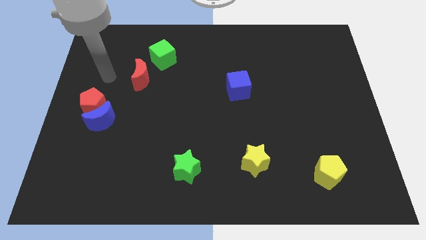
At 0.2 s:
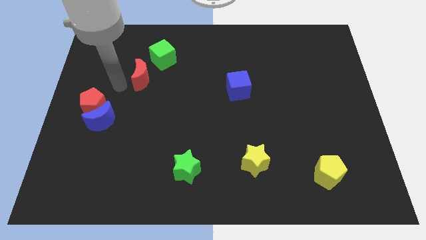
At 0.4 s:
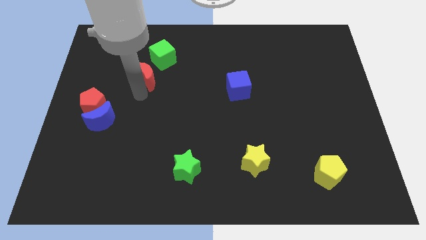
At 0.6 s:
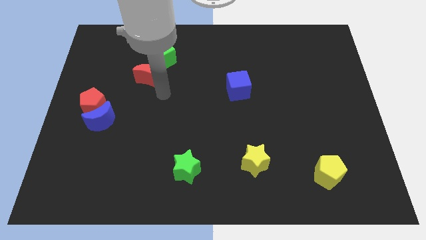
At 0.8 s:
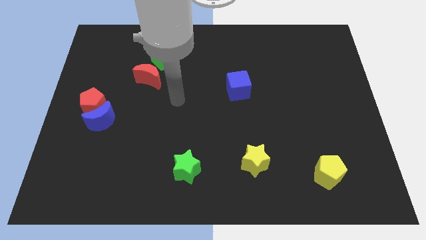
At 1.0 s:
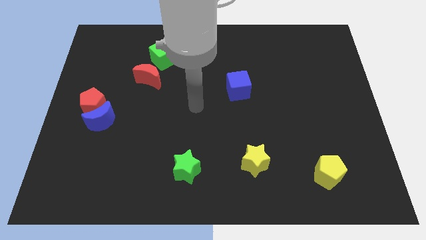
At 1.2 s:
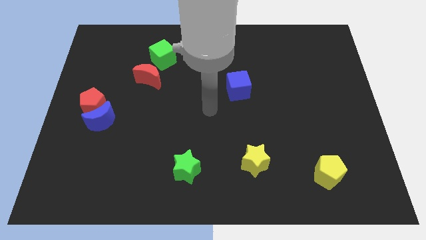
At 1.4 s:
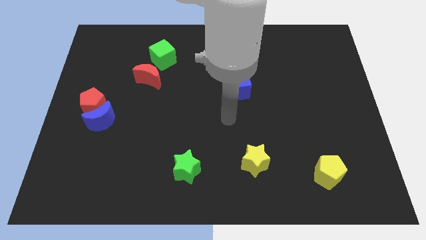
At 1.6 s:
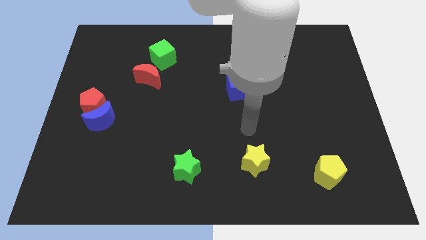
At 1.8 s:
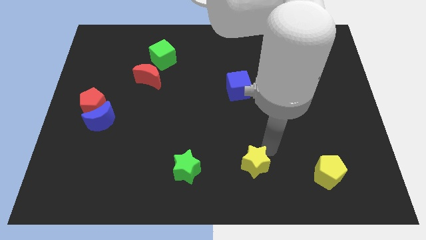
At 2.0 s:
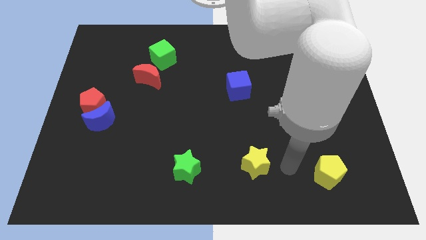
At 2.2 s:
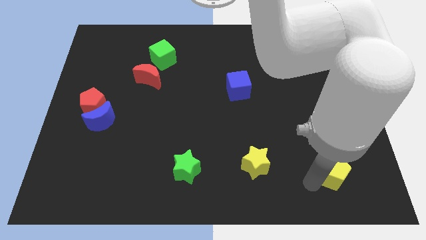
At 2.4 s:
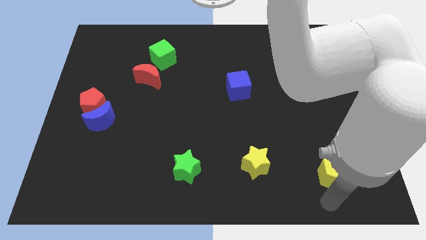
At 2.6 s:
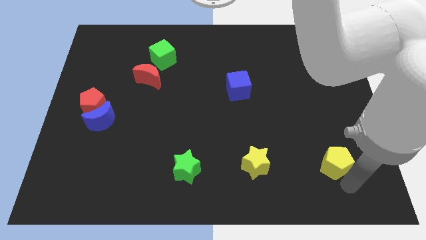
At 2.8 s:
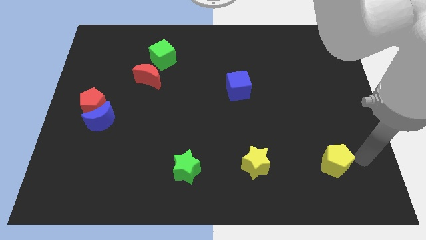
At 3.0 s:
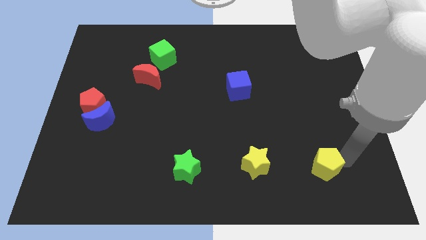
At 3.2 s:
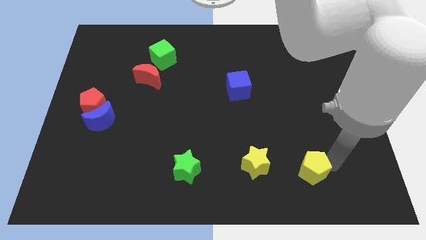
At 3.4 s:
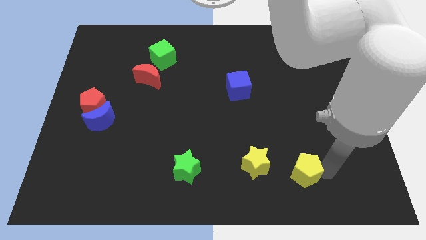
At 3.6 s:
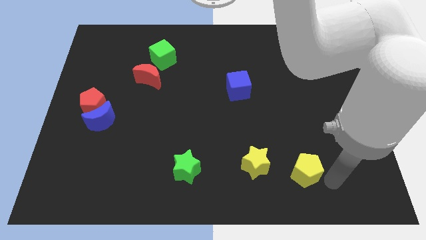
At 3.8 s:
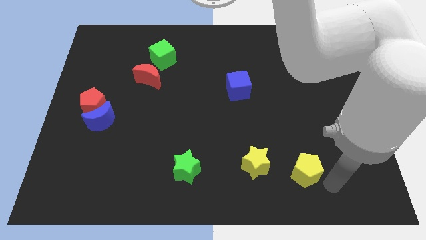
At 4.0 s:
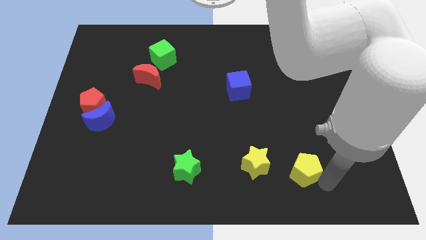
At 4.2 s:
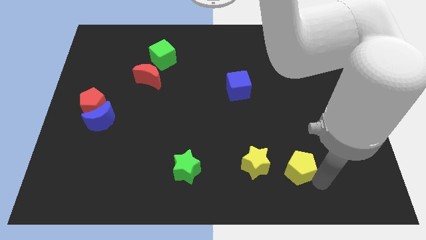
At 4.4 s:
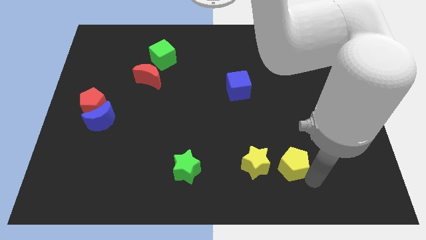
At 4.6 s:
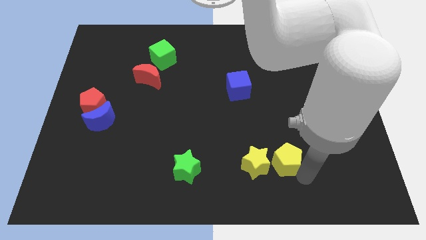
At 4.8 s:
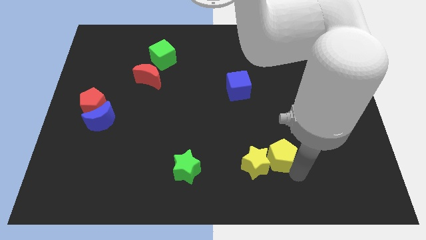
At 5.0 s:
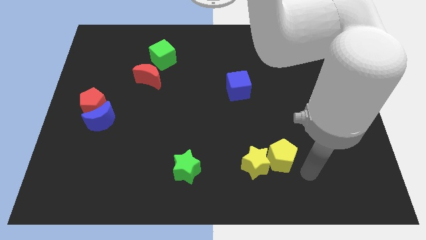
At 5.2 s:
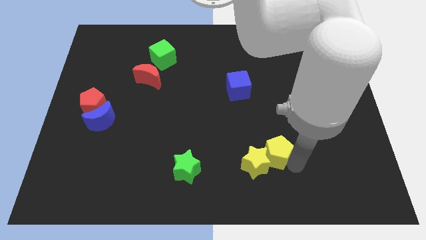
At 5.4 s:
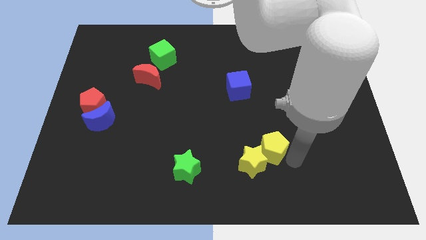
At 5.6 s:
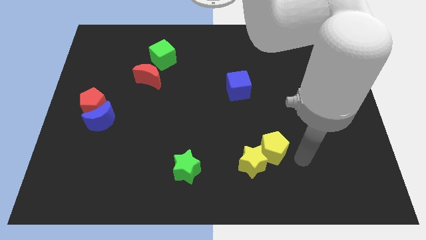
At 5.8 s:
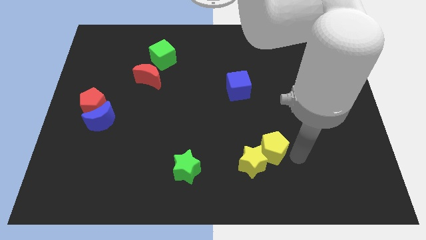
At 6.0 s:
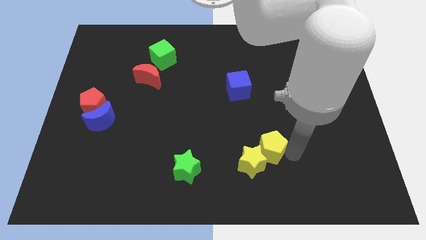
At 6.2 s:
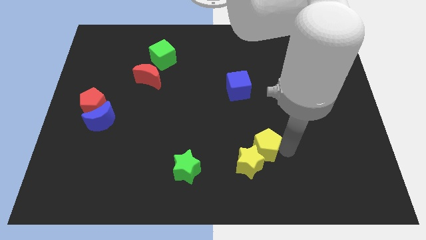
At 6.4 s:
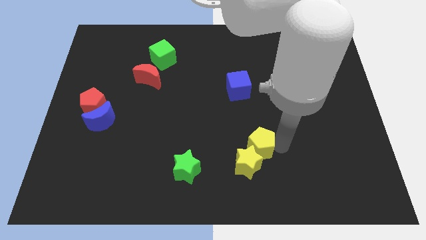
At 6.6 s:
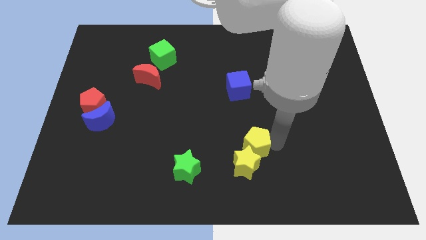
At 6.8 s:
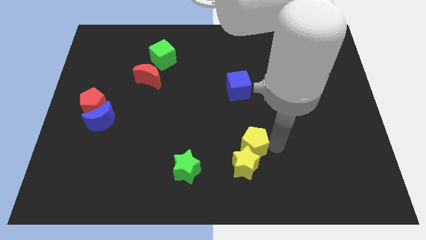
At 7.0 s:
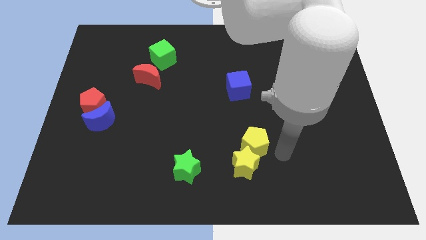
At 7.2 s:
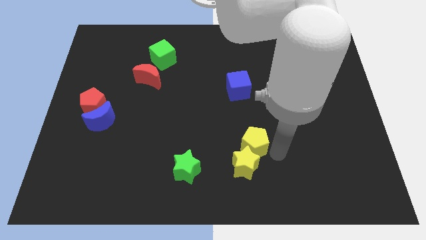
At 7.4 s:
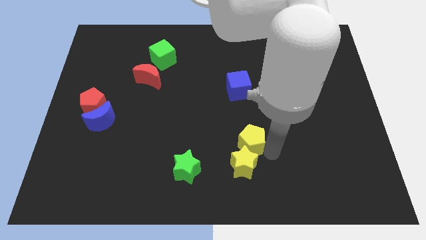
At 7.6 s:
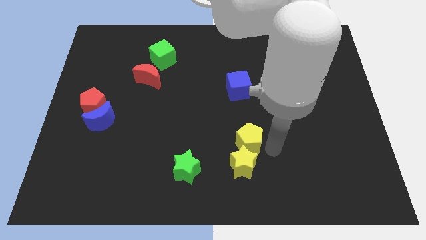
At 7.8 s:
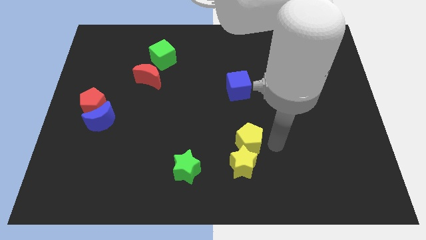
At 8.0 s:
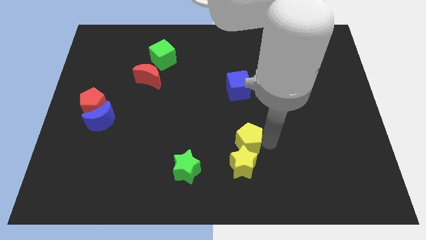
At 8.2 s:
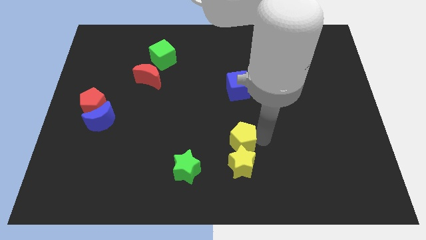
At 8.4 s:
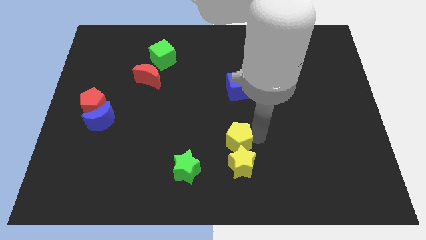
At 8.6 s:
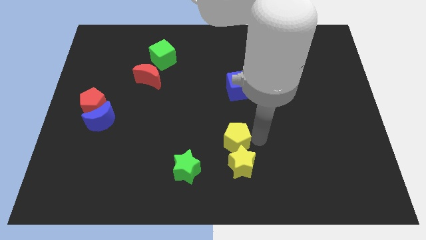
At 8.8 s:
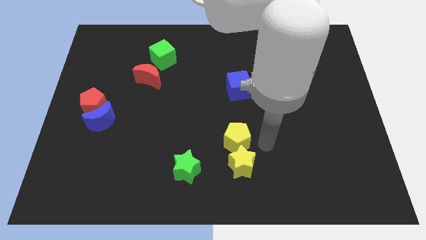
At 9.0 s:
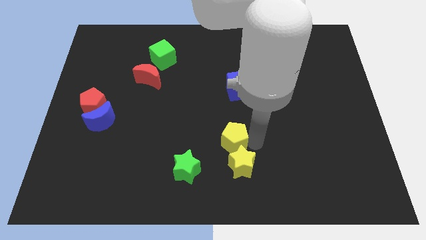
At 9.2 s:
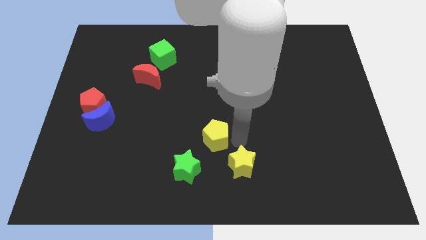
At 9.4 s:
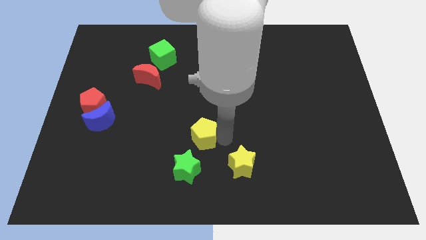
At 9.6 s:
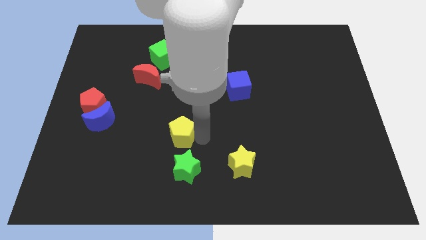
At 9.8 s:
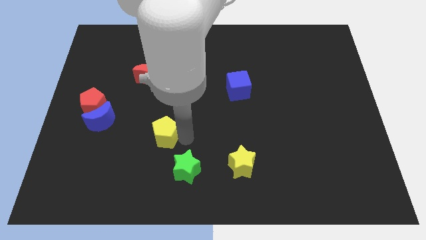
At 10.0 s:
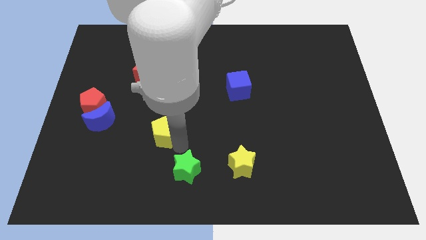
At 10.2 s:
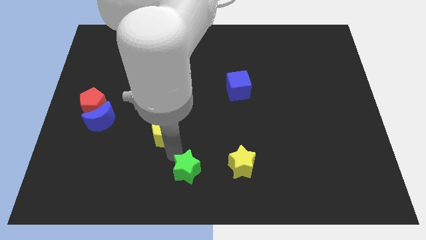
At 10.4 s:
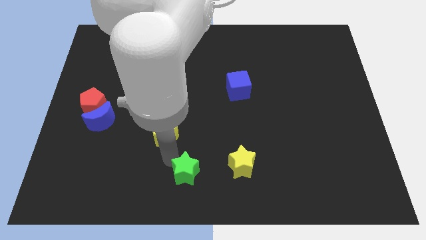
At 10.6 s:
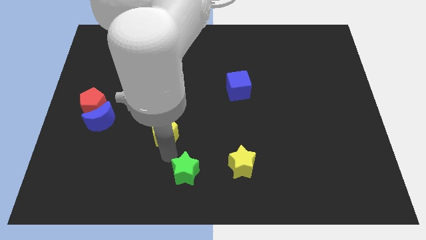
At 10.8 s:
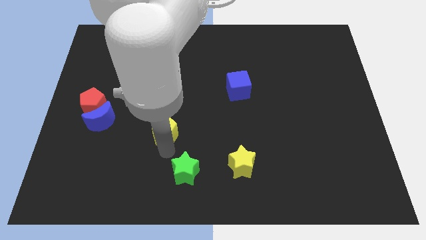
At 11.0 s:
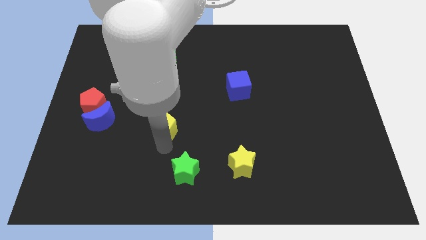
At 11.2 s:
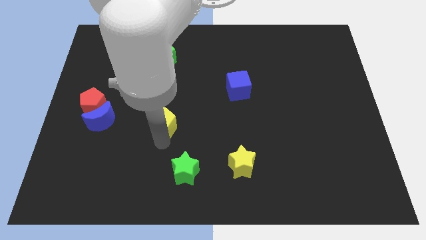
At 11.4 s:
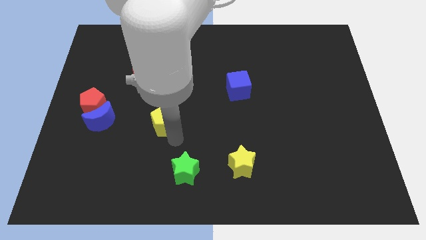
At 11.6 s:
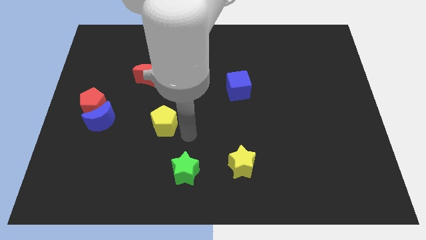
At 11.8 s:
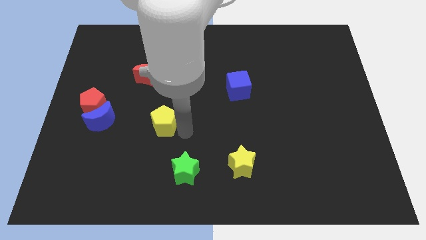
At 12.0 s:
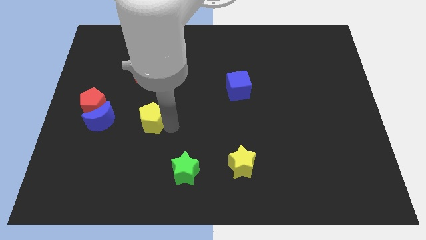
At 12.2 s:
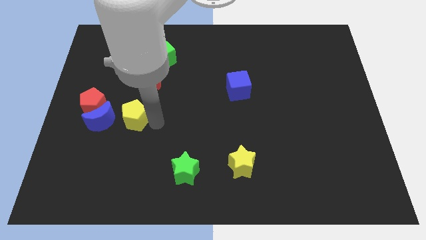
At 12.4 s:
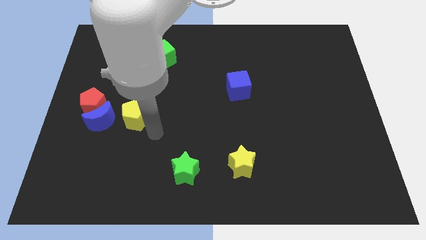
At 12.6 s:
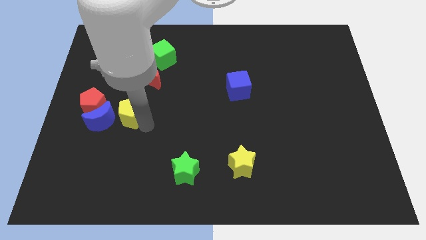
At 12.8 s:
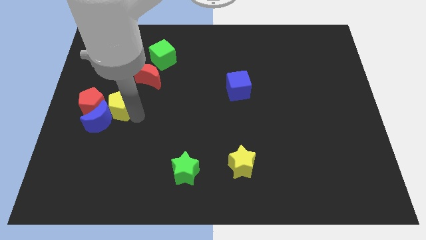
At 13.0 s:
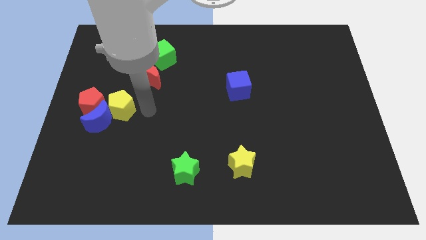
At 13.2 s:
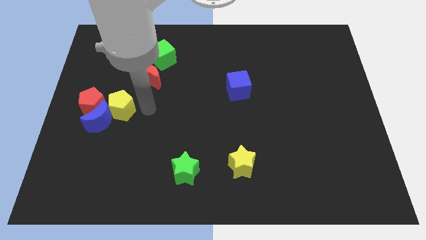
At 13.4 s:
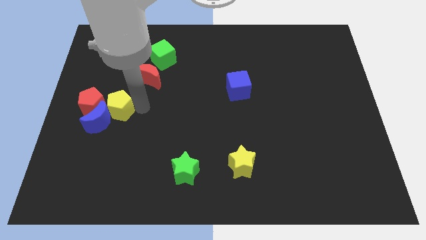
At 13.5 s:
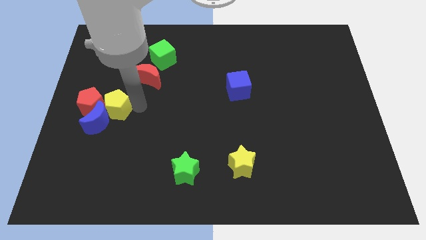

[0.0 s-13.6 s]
slide the yellow pentagon next to the red pentagon
